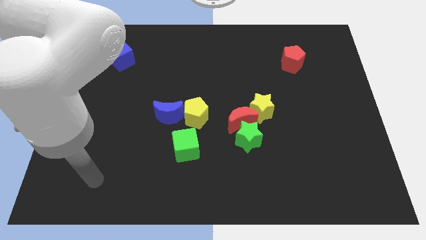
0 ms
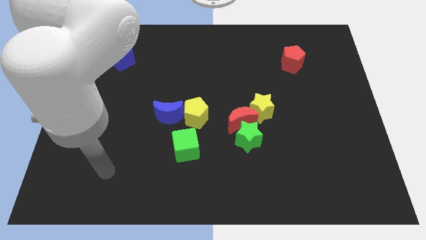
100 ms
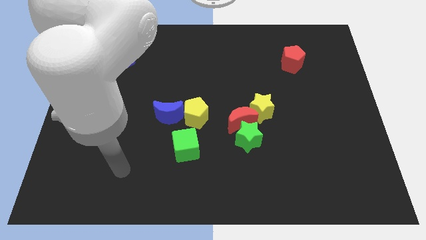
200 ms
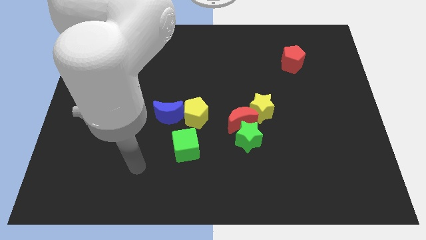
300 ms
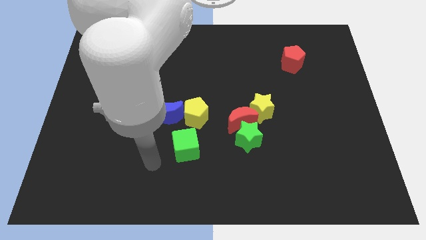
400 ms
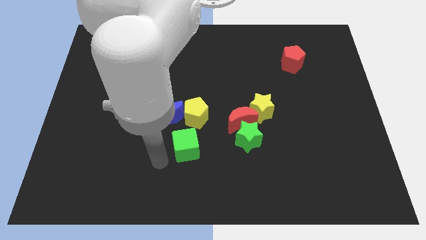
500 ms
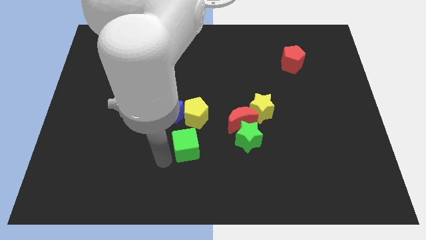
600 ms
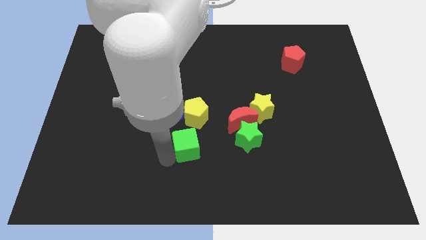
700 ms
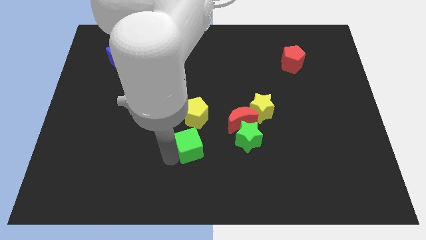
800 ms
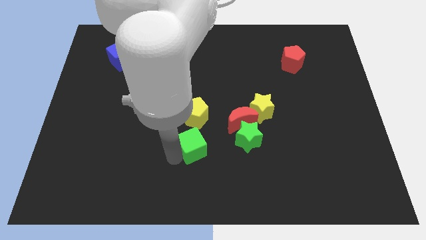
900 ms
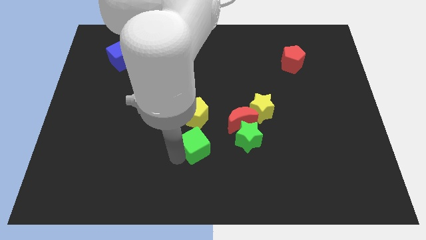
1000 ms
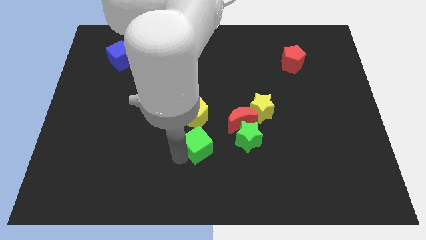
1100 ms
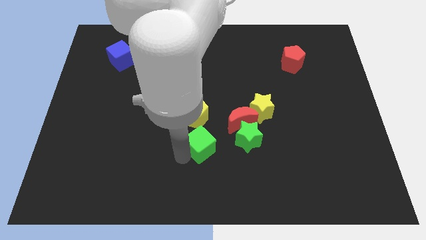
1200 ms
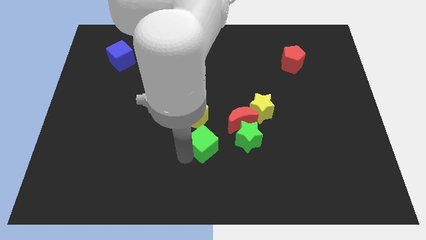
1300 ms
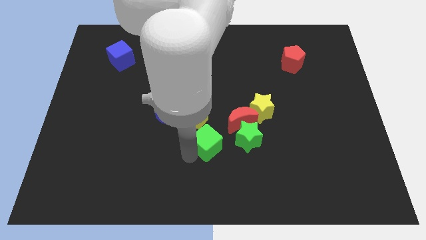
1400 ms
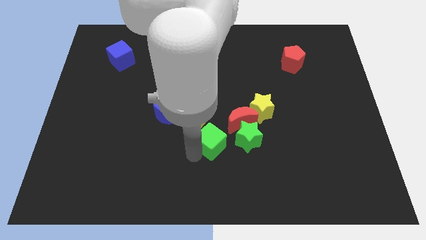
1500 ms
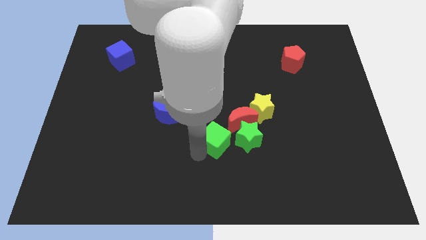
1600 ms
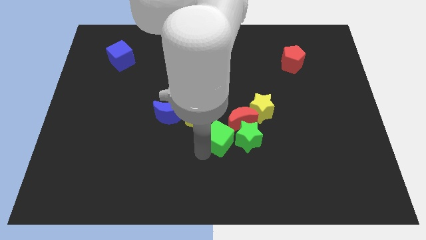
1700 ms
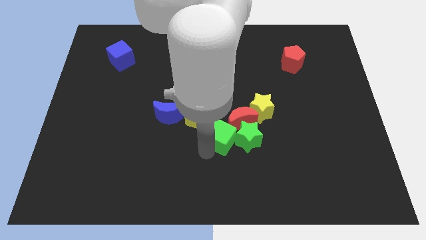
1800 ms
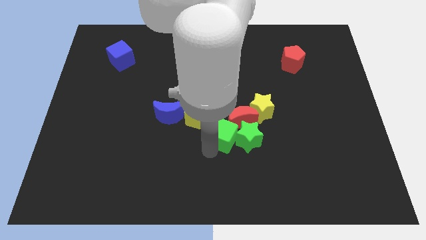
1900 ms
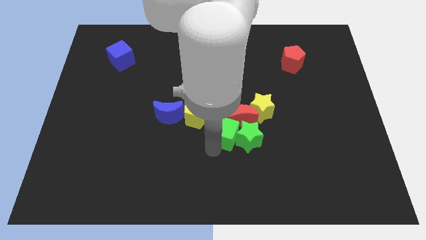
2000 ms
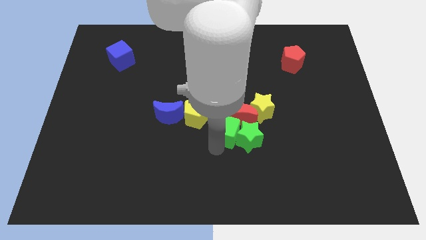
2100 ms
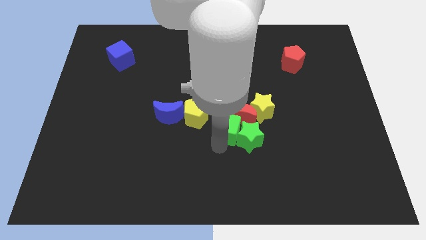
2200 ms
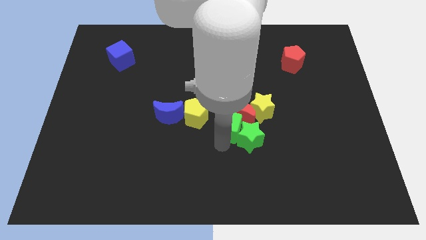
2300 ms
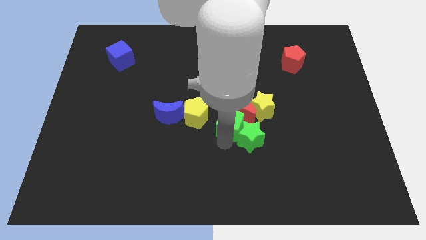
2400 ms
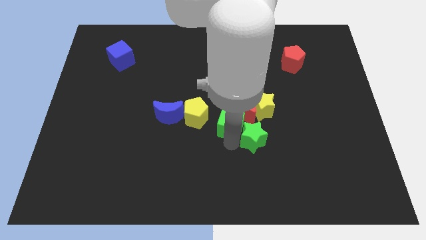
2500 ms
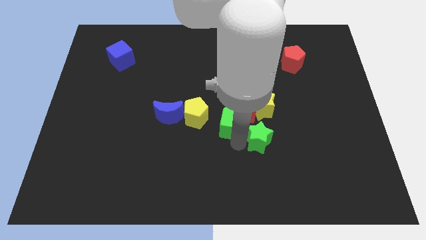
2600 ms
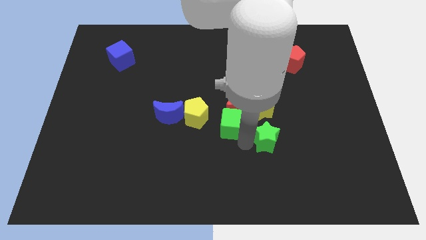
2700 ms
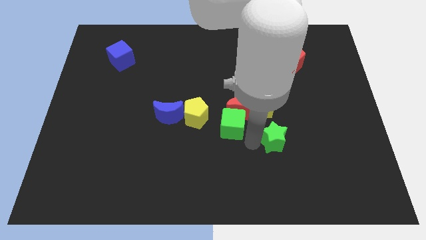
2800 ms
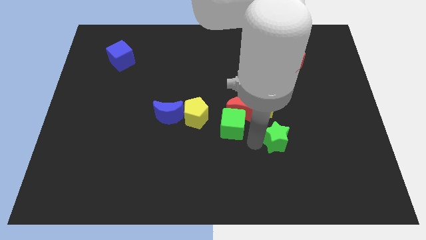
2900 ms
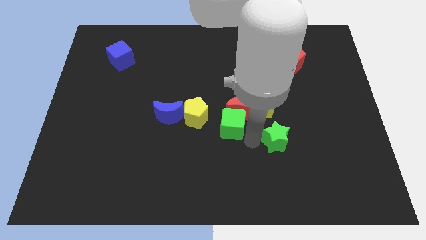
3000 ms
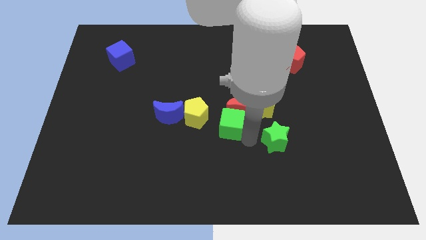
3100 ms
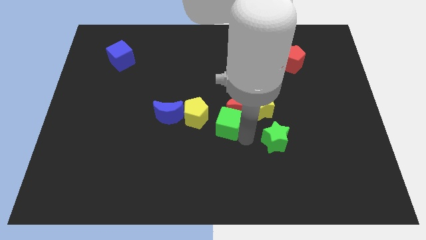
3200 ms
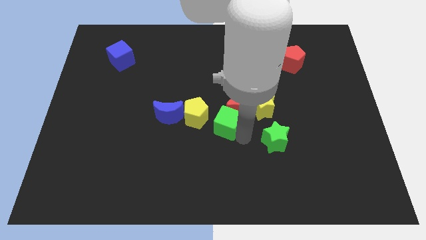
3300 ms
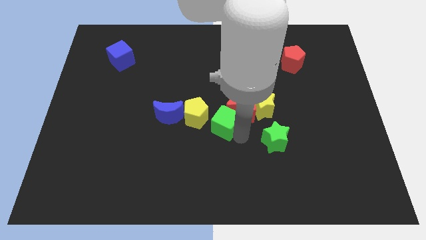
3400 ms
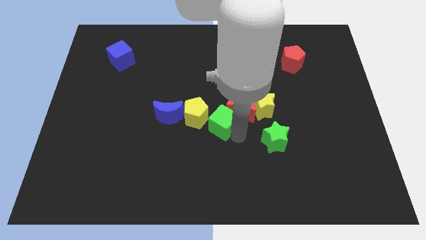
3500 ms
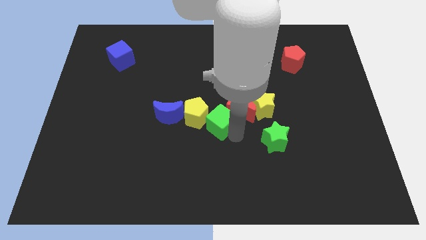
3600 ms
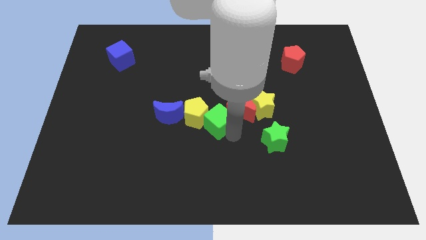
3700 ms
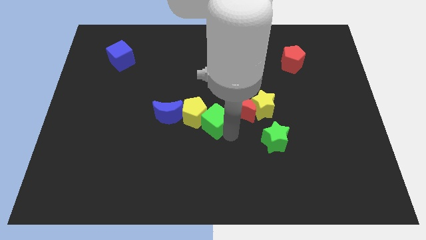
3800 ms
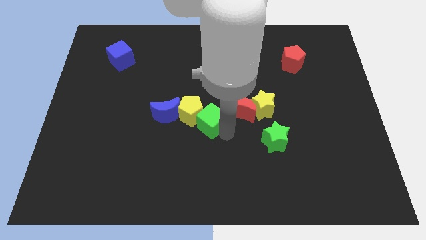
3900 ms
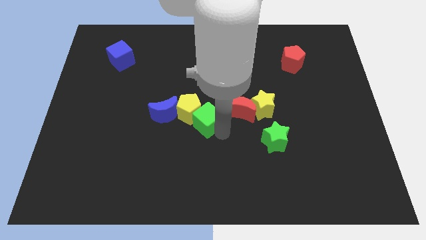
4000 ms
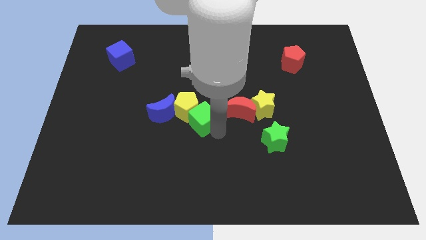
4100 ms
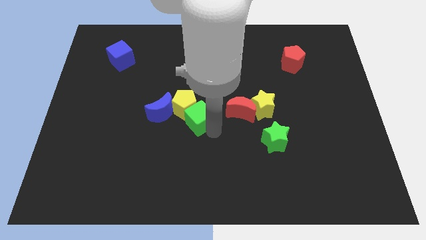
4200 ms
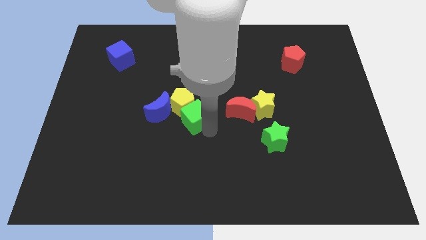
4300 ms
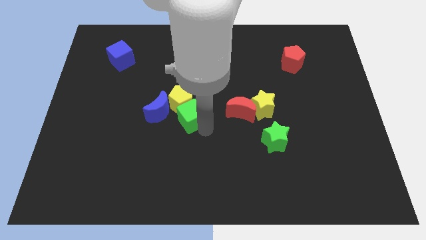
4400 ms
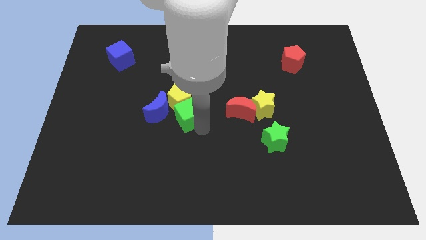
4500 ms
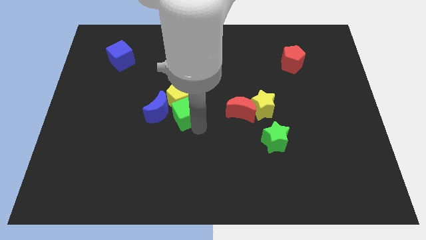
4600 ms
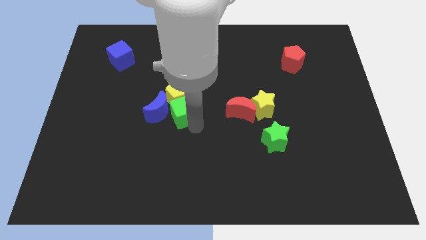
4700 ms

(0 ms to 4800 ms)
push the green cube diagonally up and to the right of the blue moon

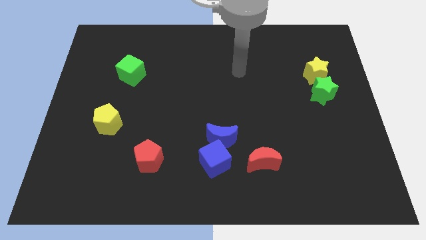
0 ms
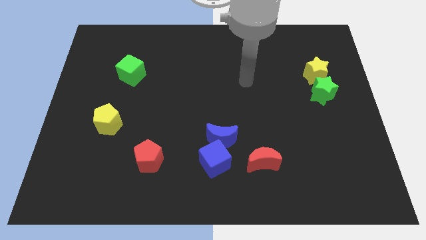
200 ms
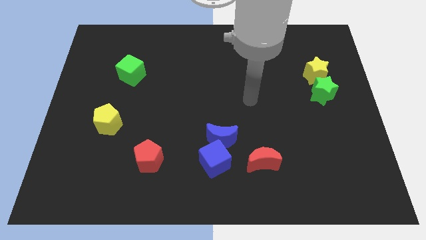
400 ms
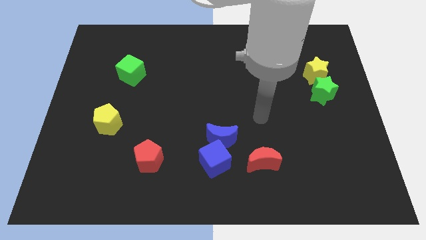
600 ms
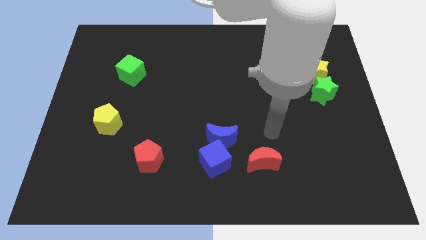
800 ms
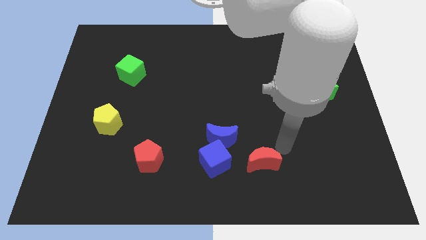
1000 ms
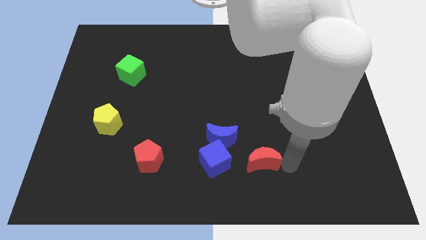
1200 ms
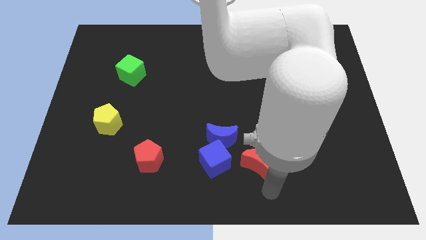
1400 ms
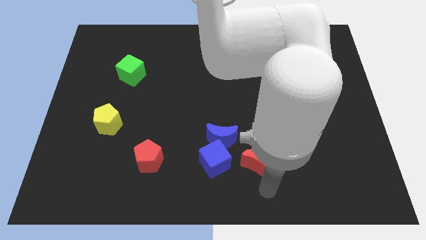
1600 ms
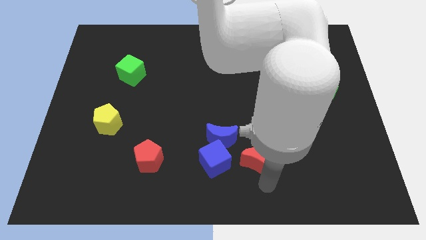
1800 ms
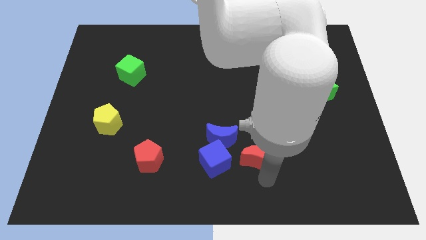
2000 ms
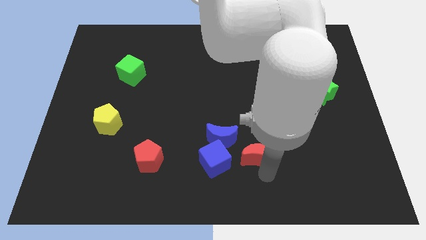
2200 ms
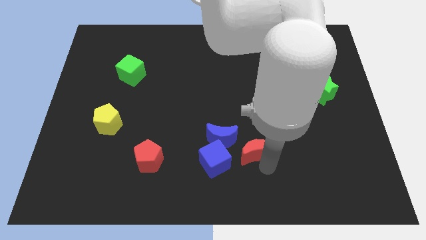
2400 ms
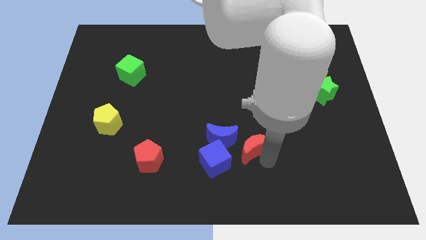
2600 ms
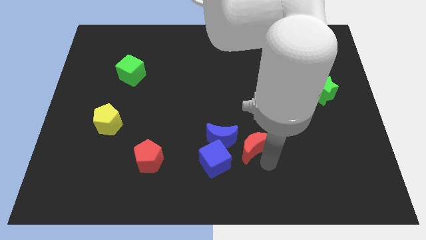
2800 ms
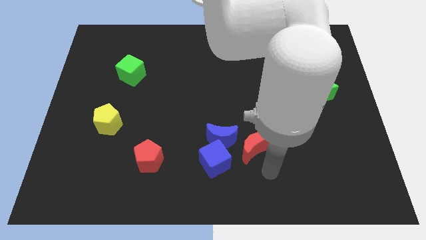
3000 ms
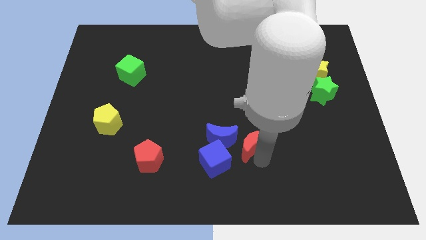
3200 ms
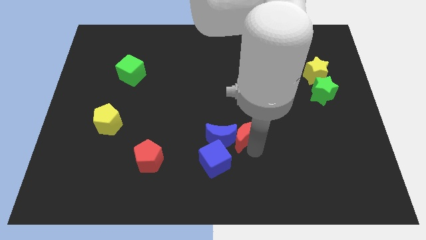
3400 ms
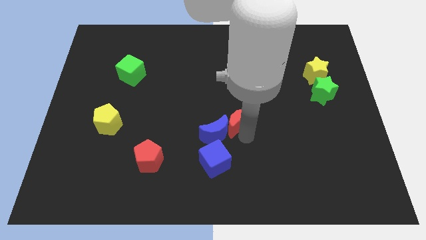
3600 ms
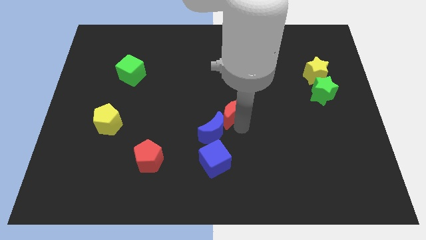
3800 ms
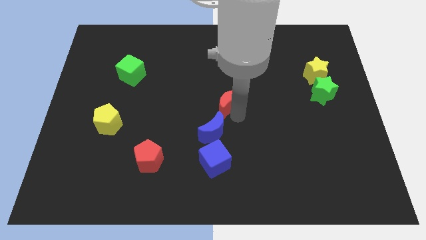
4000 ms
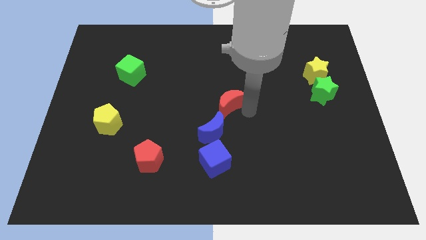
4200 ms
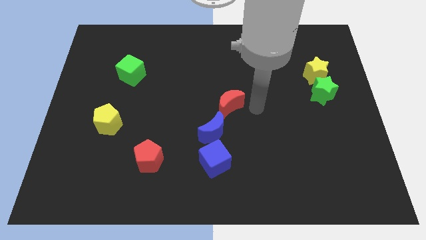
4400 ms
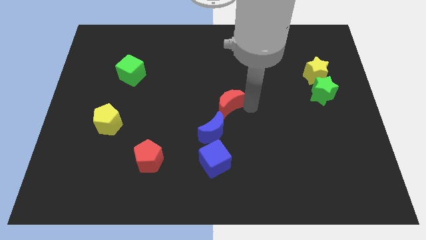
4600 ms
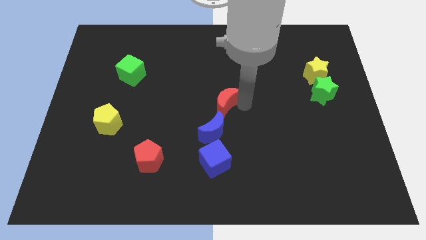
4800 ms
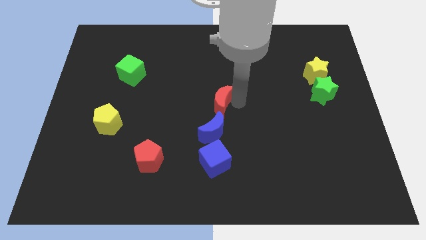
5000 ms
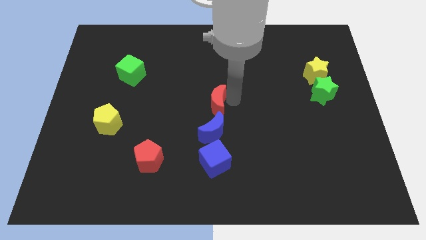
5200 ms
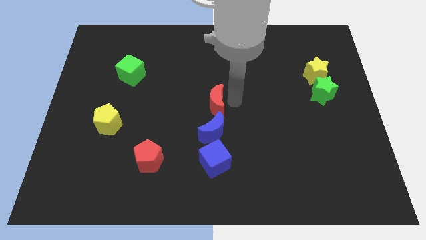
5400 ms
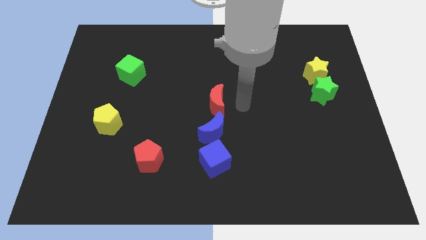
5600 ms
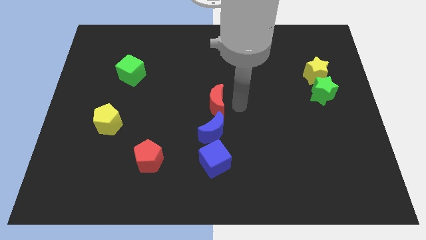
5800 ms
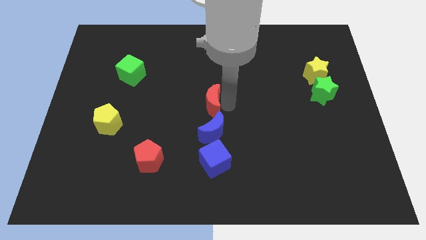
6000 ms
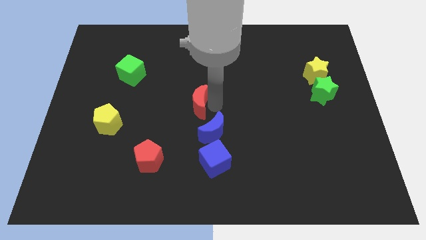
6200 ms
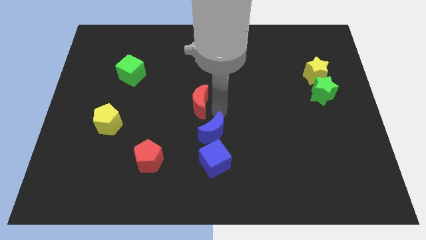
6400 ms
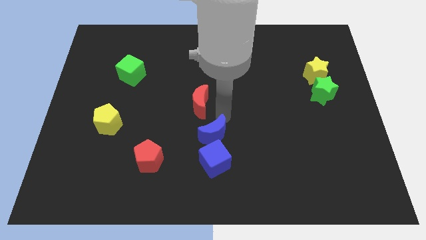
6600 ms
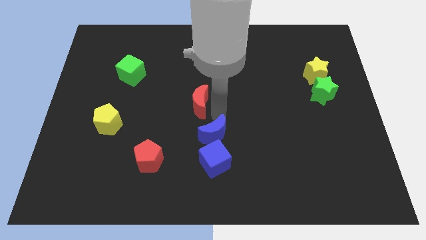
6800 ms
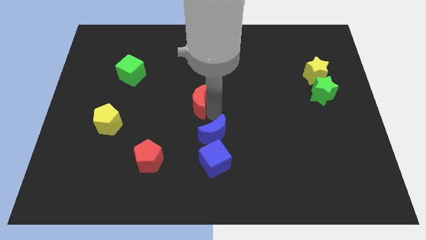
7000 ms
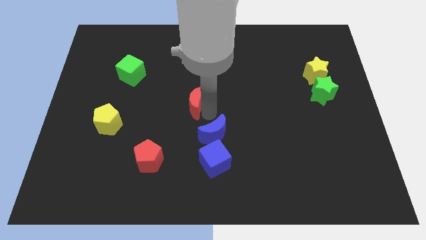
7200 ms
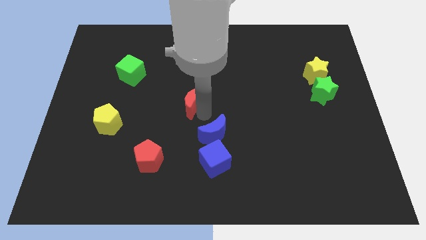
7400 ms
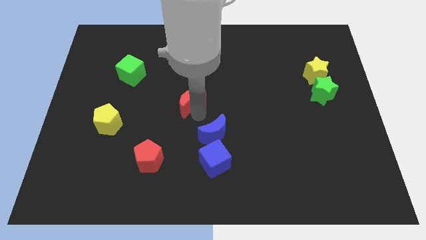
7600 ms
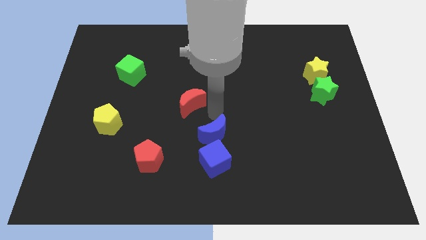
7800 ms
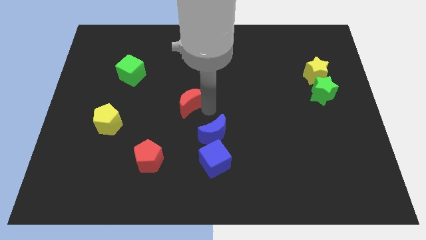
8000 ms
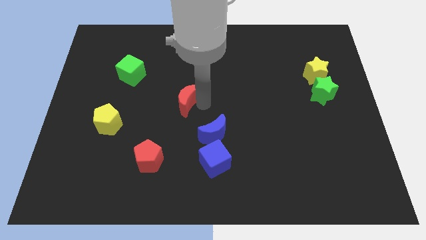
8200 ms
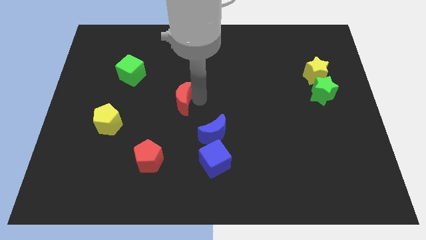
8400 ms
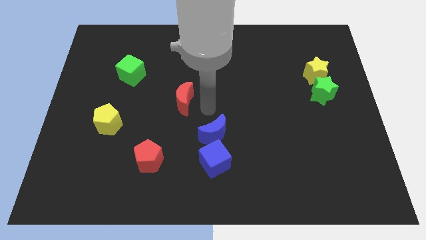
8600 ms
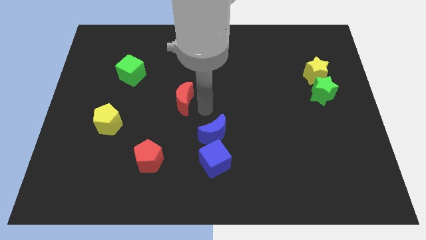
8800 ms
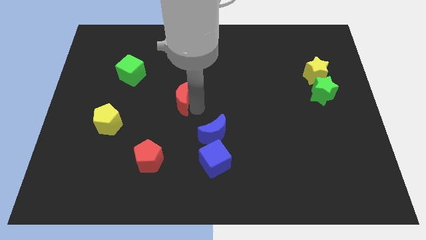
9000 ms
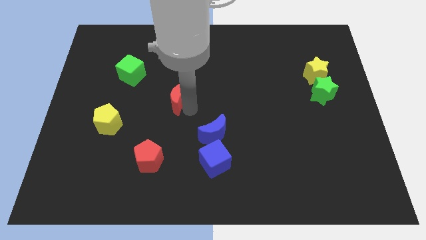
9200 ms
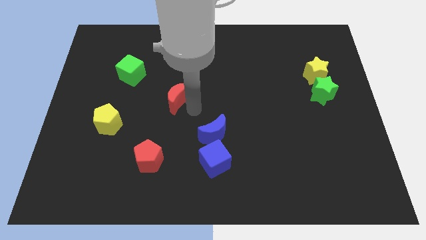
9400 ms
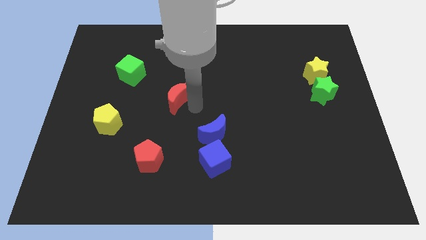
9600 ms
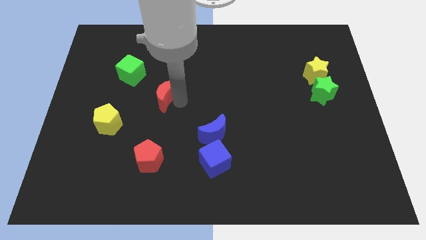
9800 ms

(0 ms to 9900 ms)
move the red moon diagonally down and to the right of the green cube
